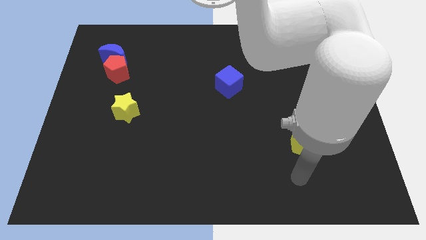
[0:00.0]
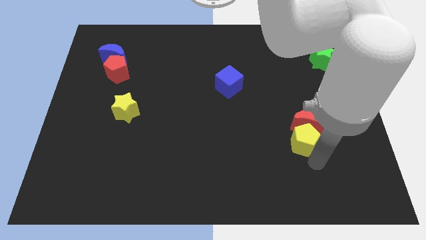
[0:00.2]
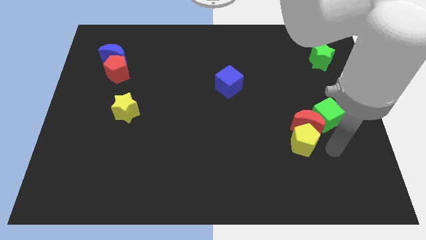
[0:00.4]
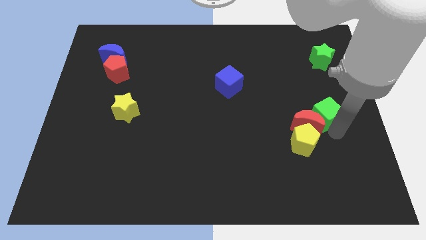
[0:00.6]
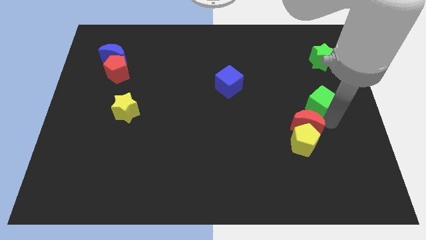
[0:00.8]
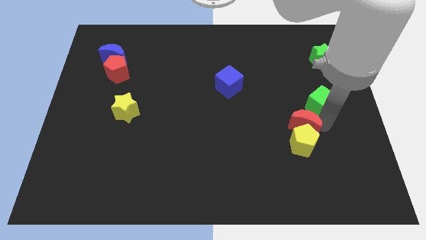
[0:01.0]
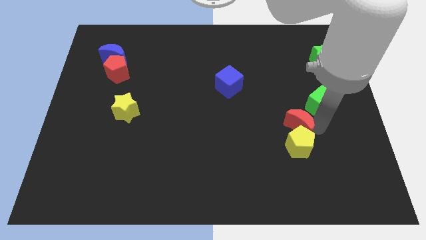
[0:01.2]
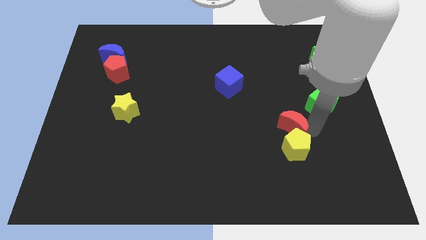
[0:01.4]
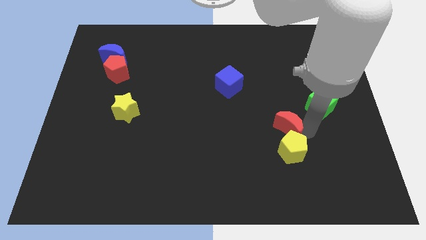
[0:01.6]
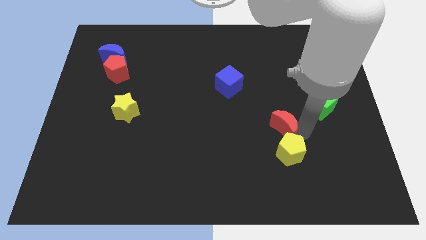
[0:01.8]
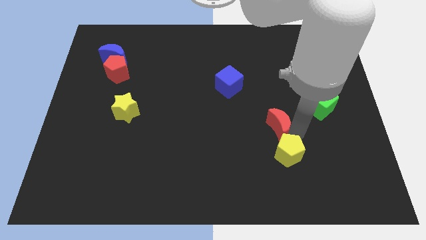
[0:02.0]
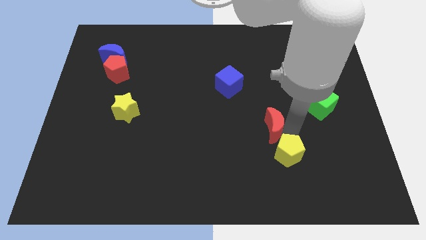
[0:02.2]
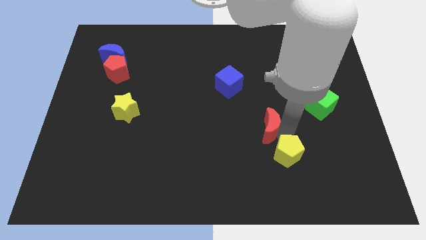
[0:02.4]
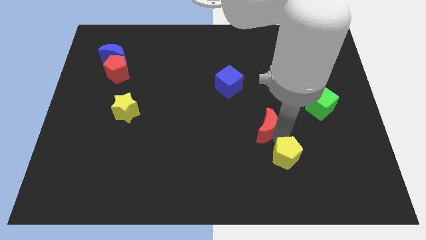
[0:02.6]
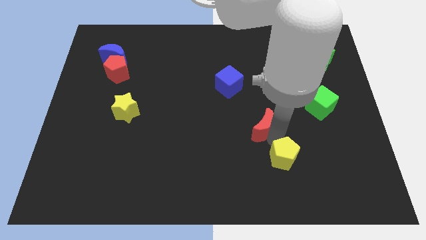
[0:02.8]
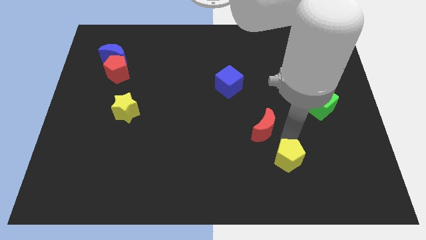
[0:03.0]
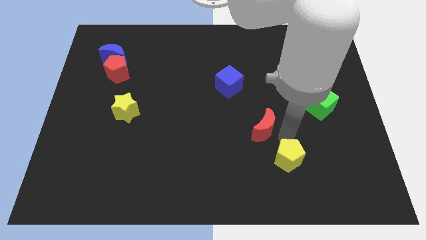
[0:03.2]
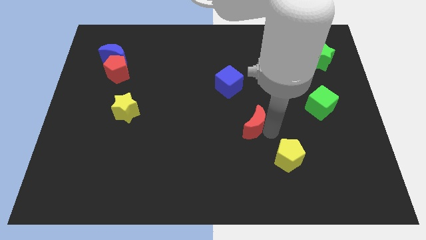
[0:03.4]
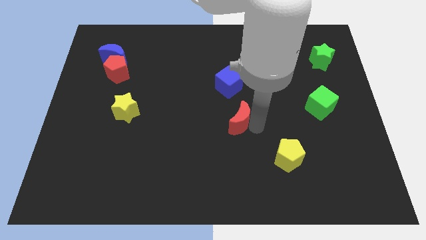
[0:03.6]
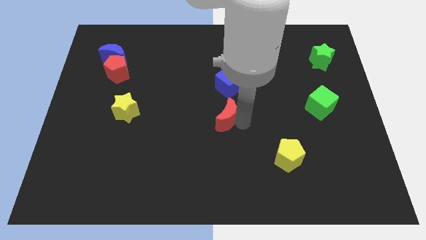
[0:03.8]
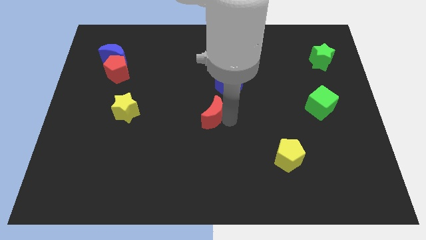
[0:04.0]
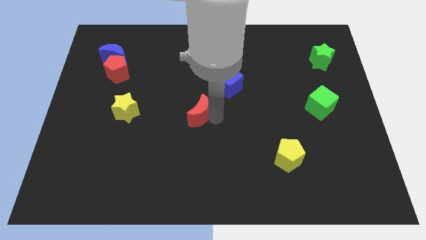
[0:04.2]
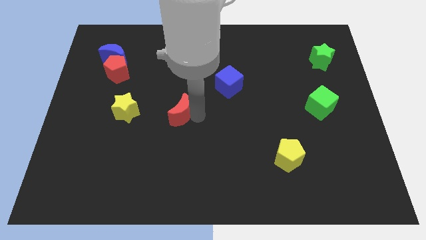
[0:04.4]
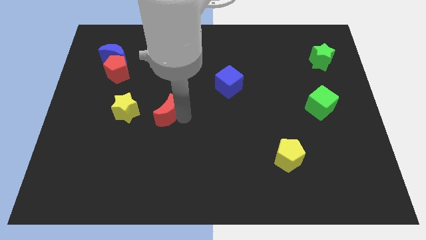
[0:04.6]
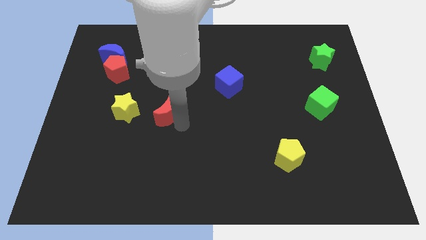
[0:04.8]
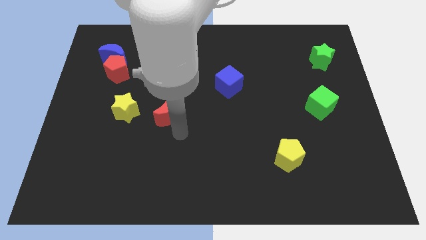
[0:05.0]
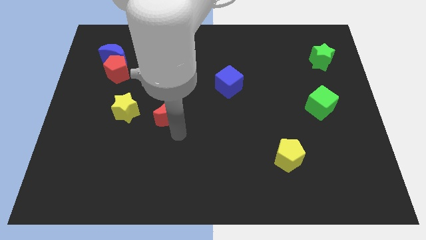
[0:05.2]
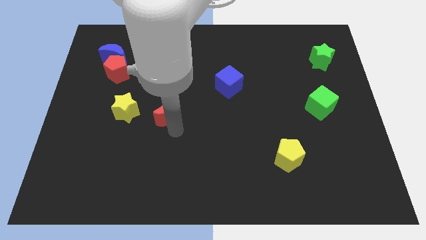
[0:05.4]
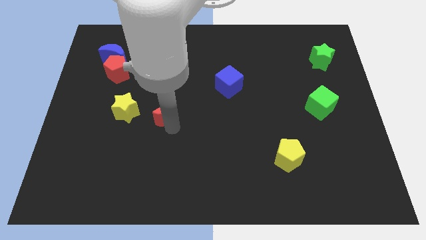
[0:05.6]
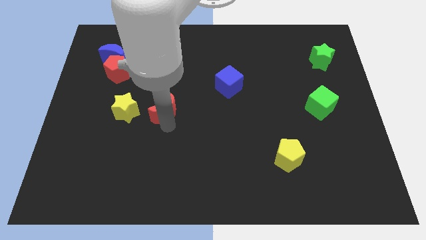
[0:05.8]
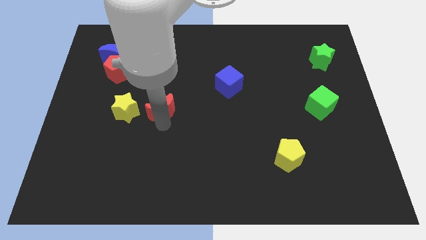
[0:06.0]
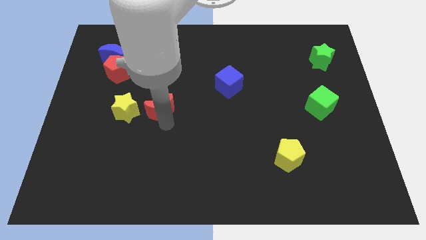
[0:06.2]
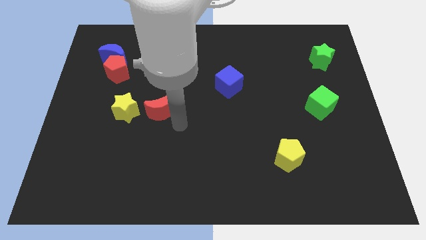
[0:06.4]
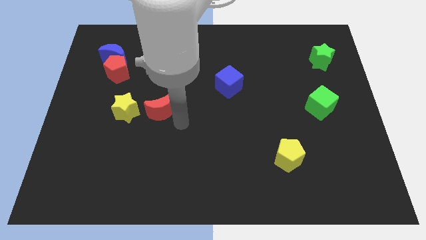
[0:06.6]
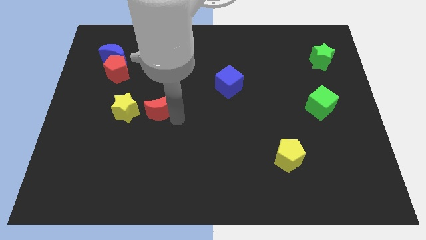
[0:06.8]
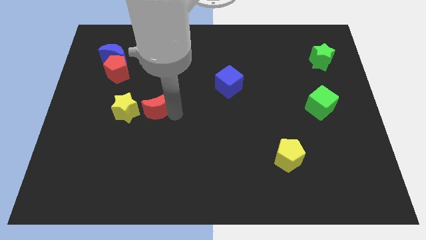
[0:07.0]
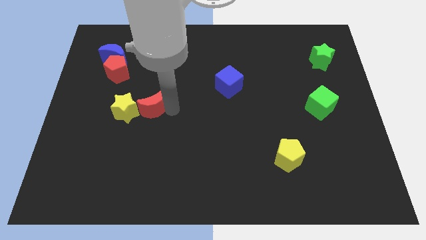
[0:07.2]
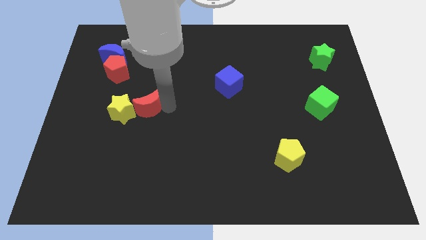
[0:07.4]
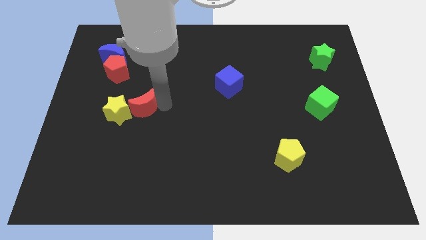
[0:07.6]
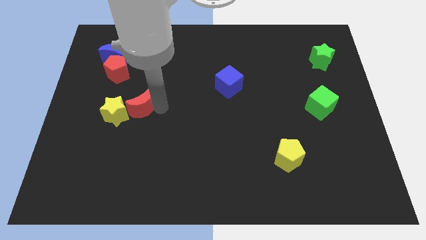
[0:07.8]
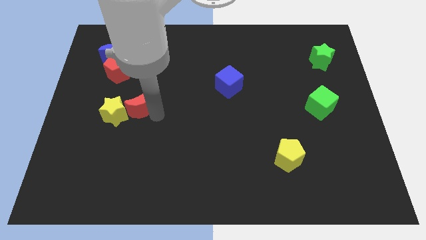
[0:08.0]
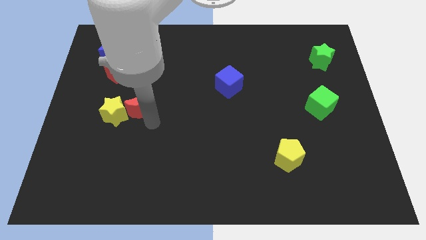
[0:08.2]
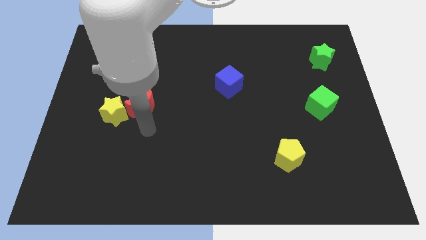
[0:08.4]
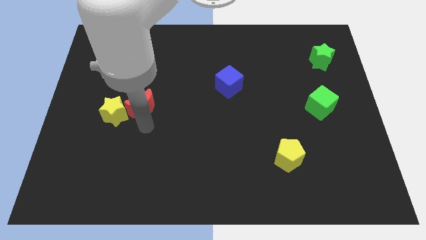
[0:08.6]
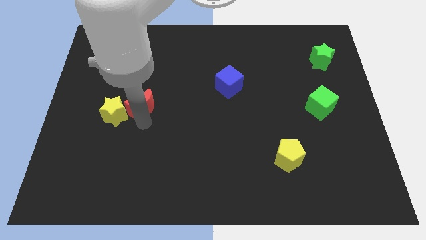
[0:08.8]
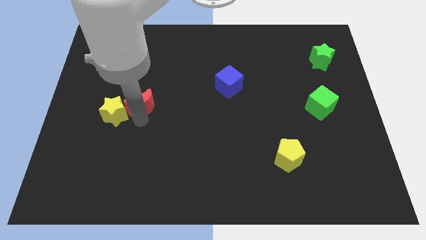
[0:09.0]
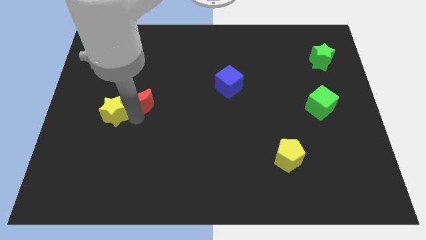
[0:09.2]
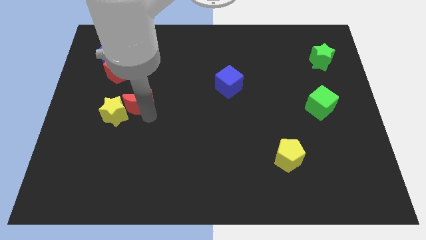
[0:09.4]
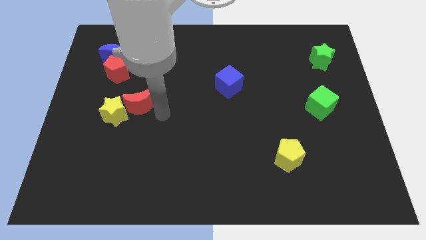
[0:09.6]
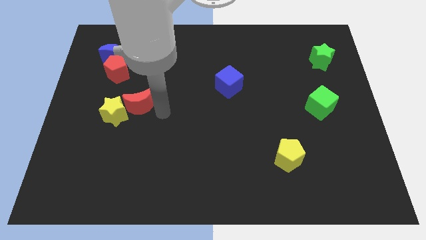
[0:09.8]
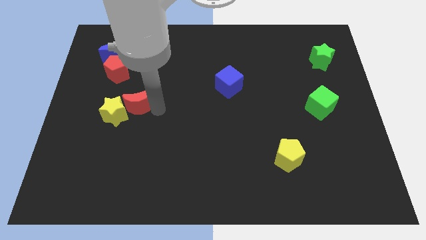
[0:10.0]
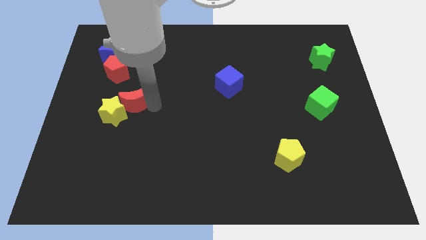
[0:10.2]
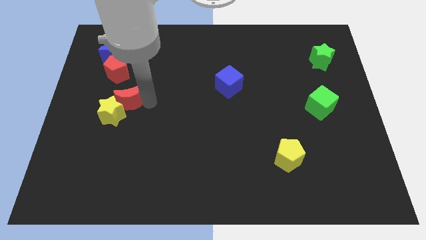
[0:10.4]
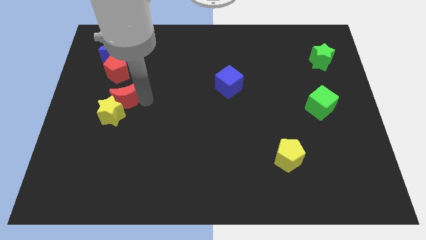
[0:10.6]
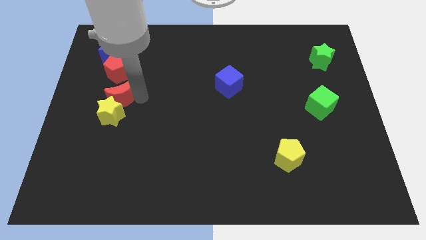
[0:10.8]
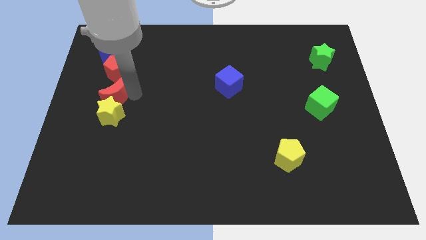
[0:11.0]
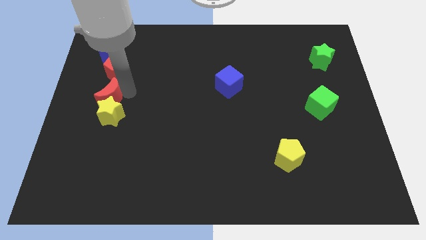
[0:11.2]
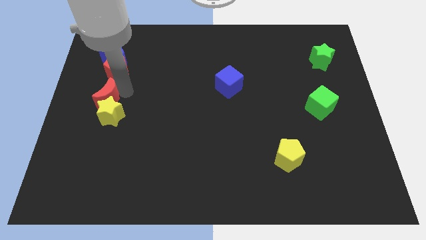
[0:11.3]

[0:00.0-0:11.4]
move the red moon to the left side of the board

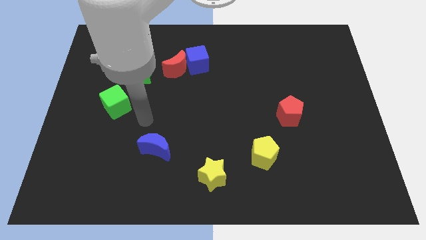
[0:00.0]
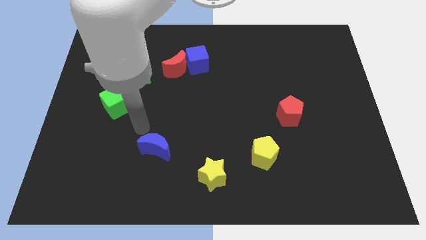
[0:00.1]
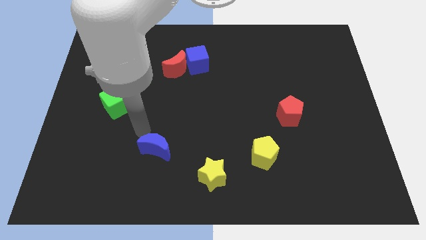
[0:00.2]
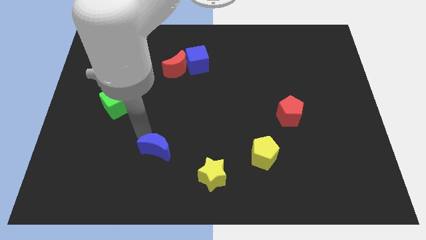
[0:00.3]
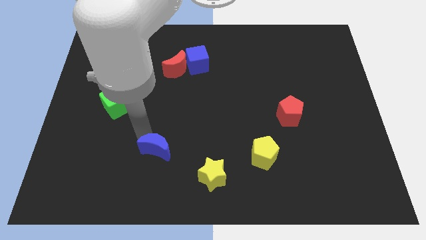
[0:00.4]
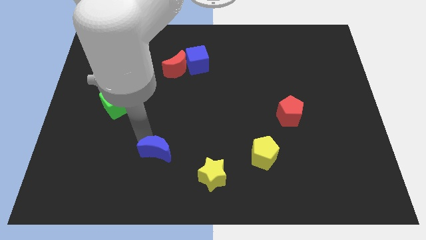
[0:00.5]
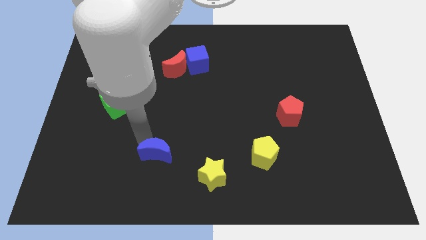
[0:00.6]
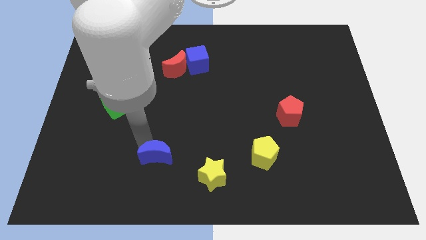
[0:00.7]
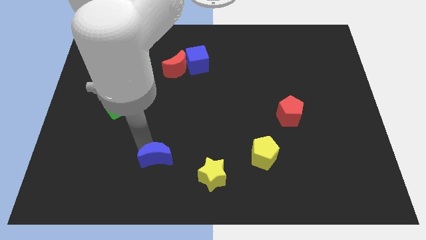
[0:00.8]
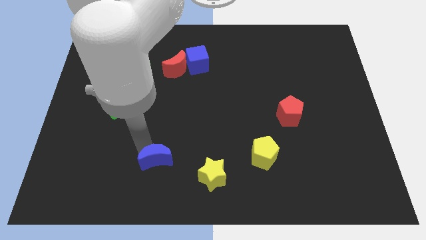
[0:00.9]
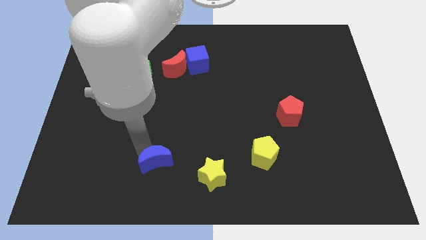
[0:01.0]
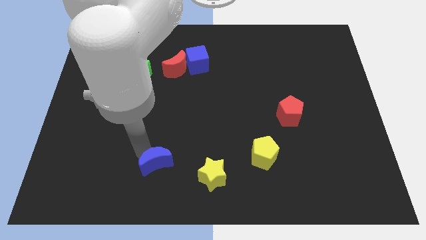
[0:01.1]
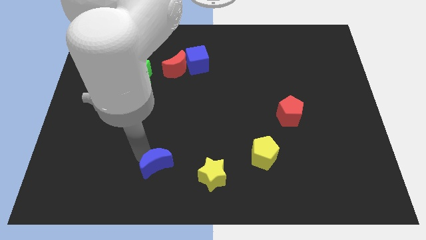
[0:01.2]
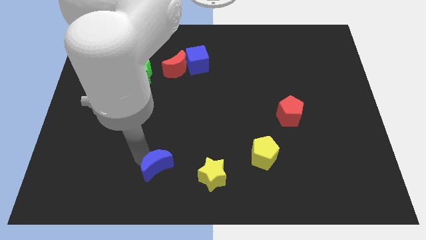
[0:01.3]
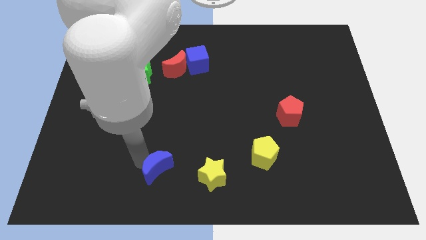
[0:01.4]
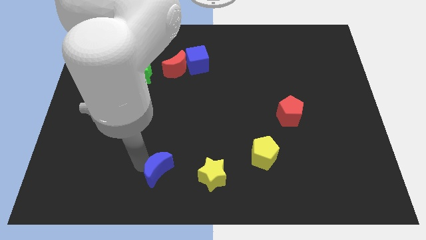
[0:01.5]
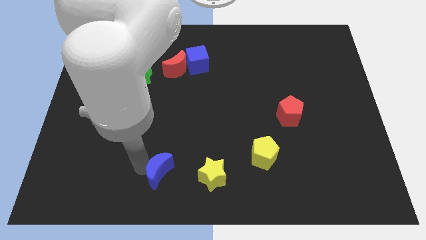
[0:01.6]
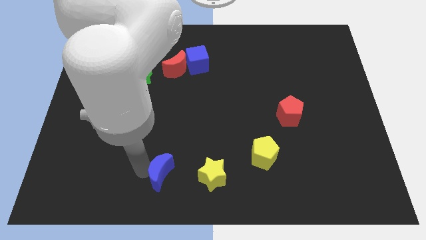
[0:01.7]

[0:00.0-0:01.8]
put the blue moon to the bottom
